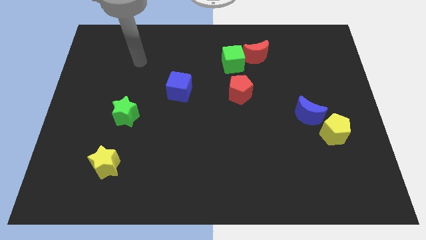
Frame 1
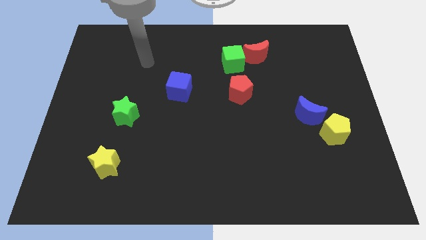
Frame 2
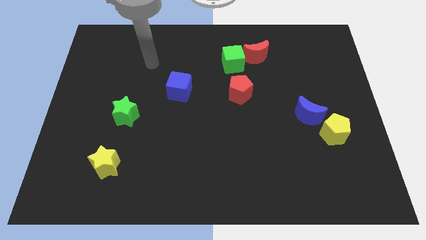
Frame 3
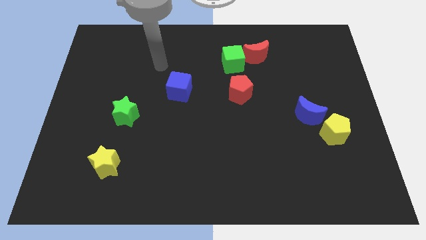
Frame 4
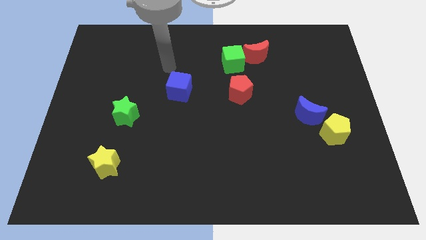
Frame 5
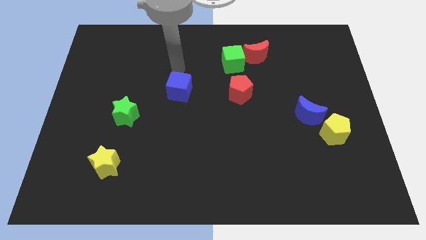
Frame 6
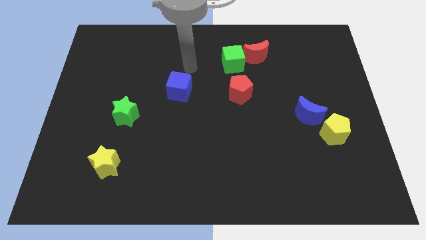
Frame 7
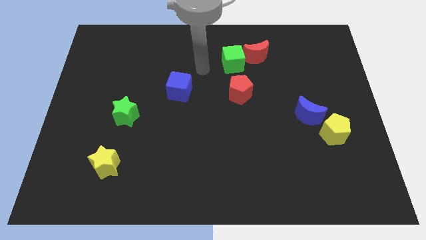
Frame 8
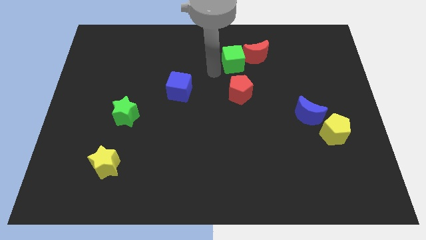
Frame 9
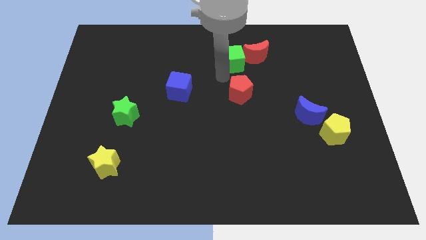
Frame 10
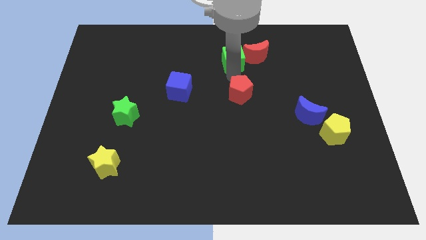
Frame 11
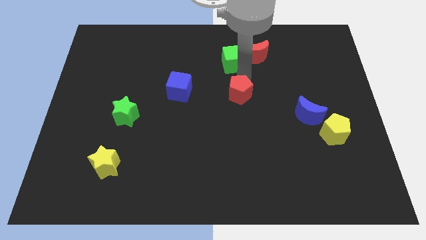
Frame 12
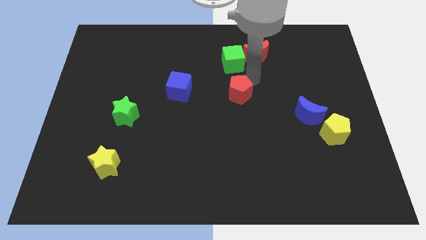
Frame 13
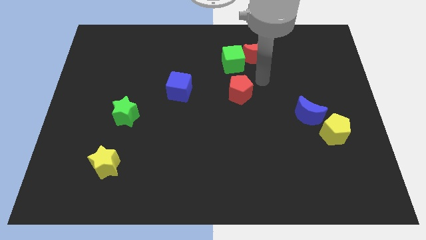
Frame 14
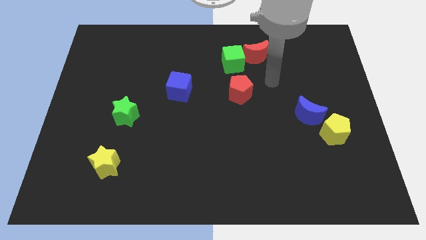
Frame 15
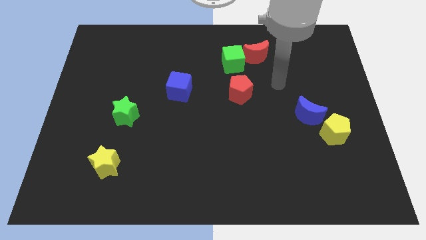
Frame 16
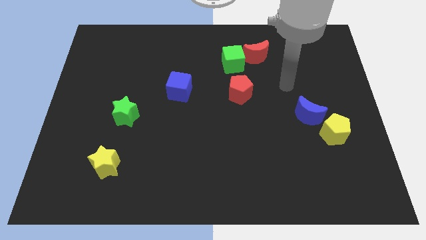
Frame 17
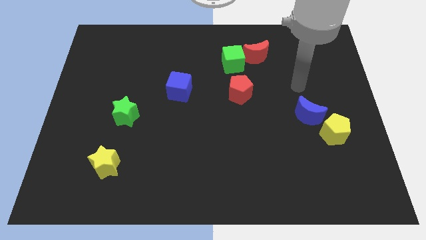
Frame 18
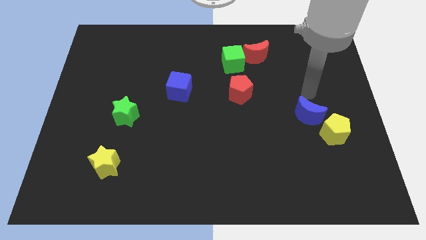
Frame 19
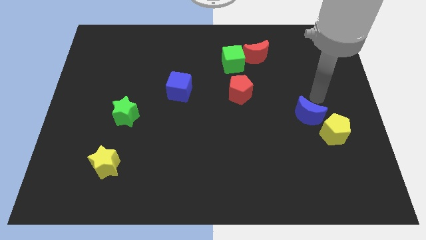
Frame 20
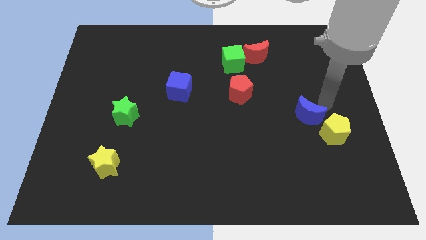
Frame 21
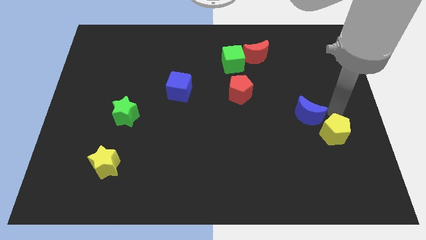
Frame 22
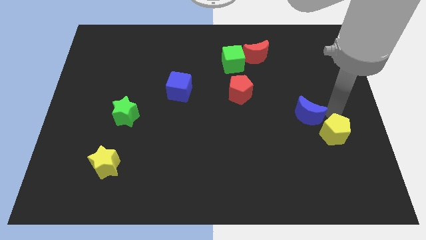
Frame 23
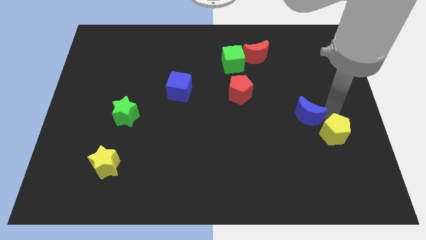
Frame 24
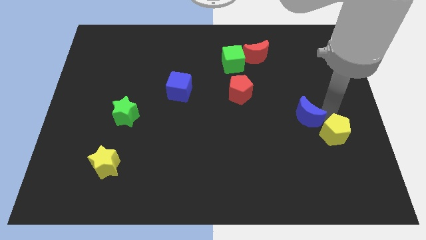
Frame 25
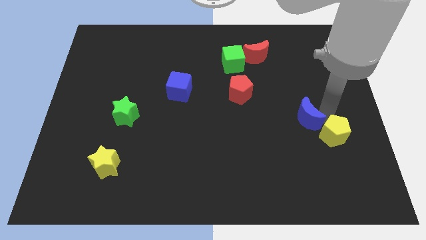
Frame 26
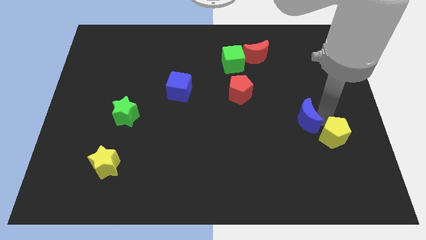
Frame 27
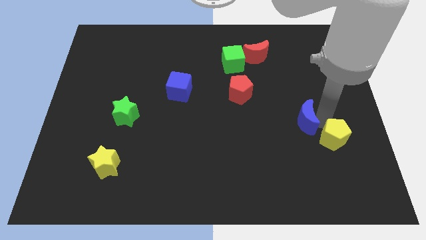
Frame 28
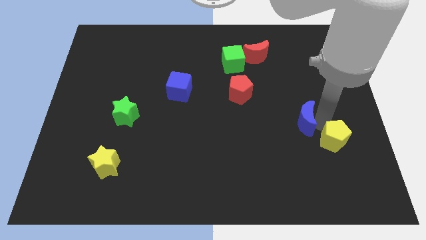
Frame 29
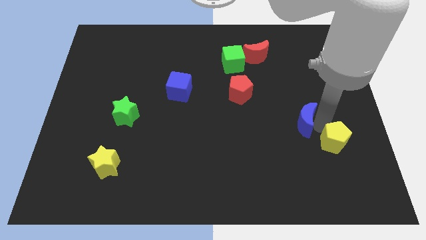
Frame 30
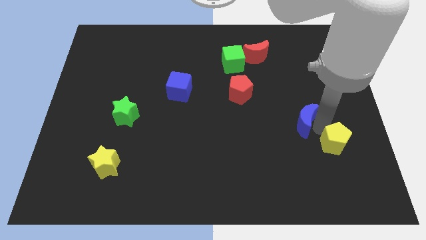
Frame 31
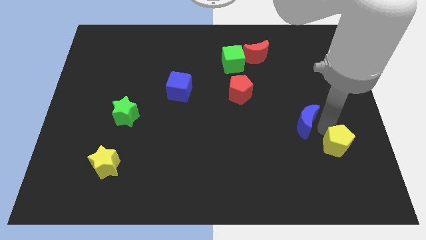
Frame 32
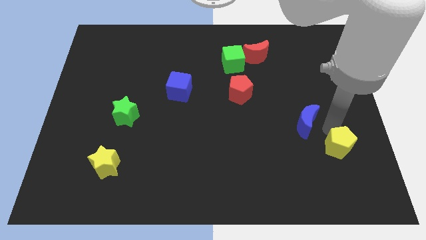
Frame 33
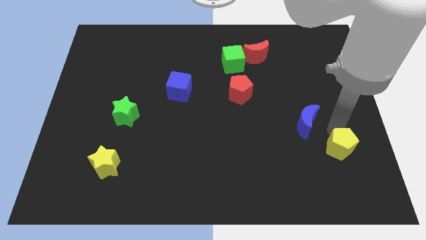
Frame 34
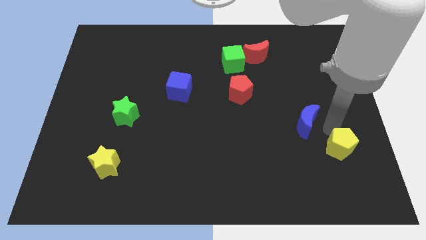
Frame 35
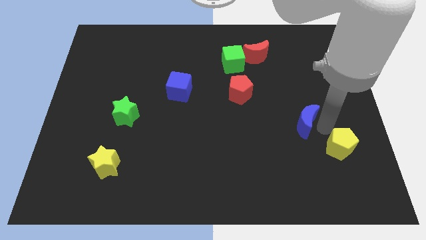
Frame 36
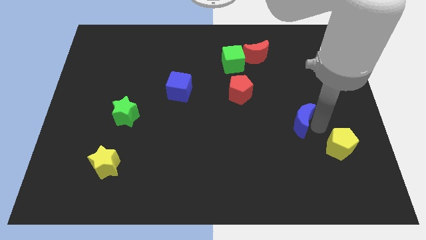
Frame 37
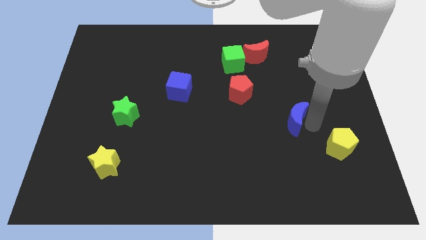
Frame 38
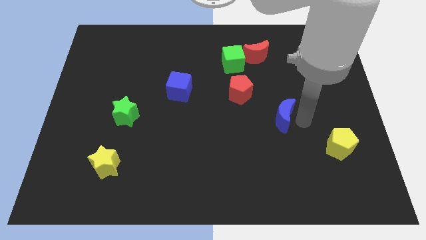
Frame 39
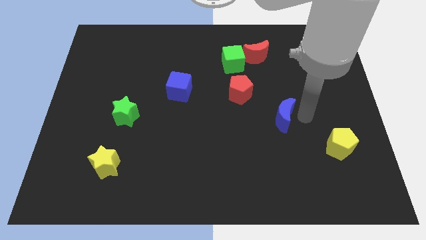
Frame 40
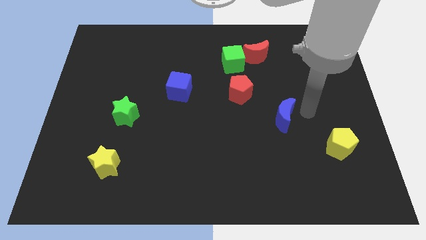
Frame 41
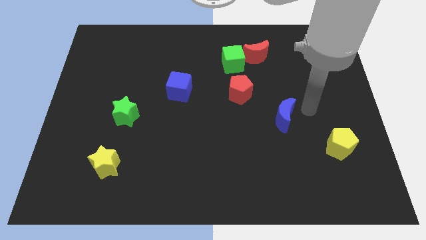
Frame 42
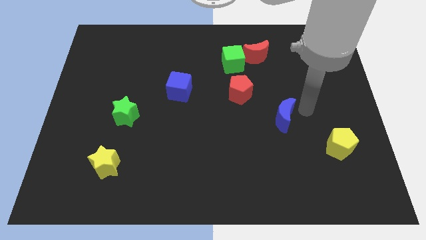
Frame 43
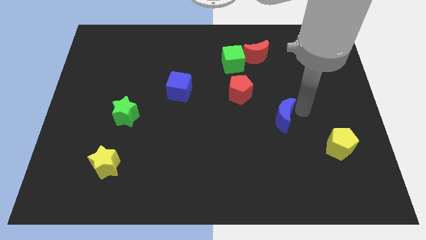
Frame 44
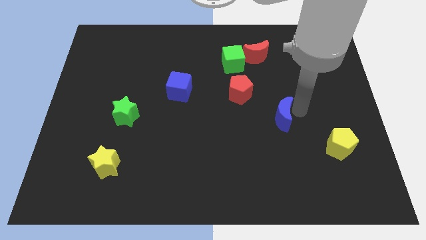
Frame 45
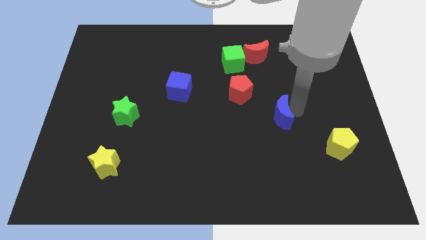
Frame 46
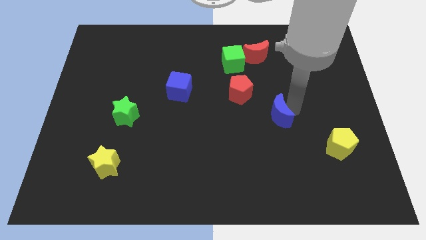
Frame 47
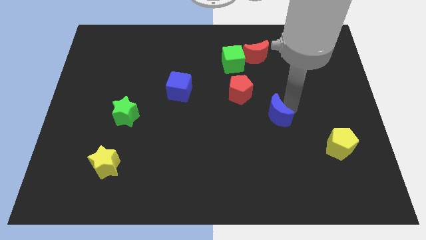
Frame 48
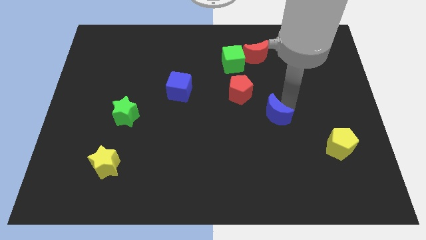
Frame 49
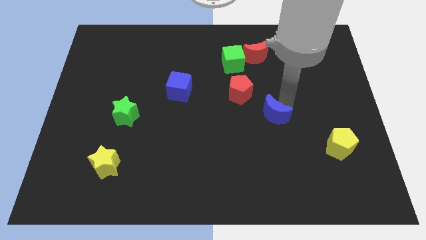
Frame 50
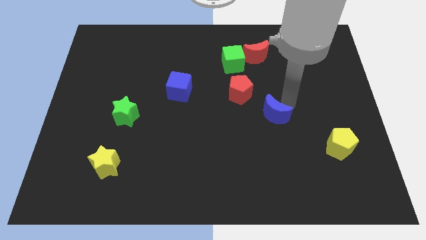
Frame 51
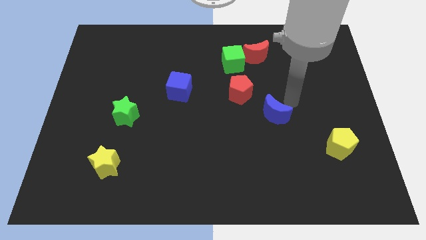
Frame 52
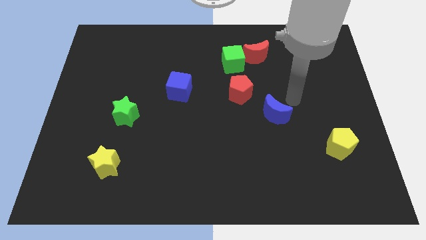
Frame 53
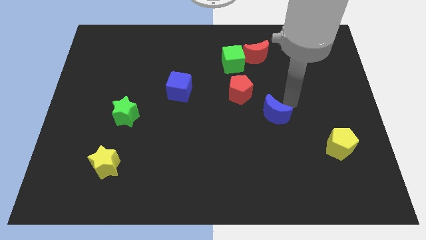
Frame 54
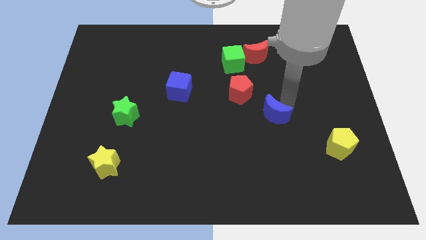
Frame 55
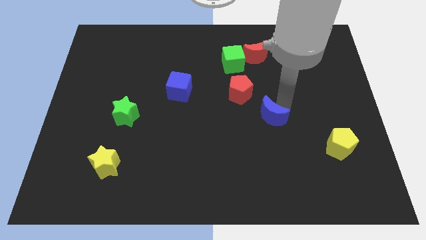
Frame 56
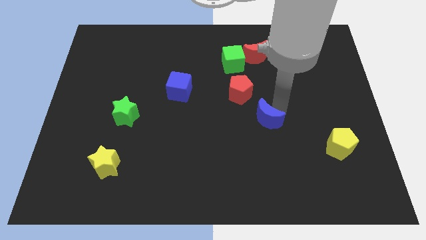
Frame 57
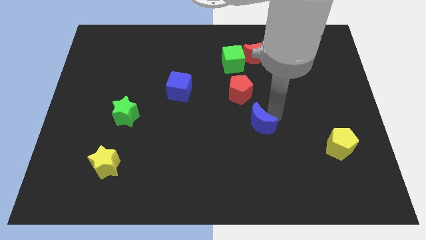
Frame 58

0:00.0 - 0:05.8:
slide the blue moon below the red pentagon

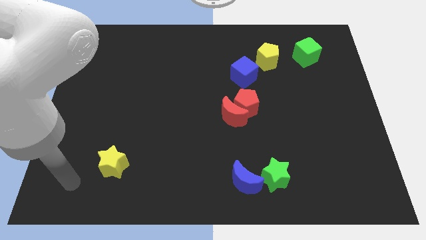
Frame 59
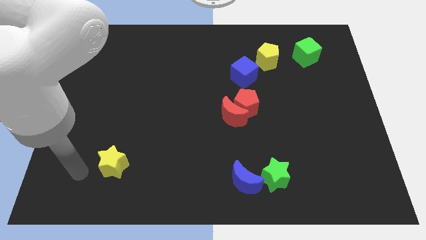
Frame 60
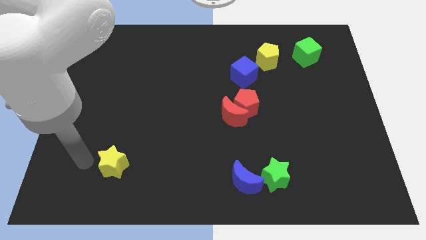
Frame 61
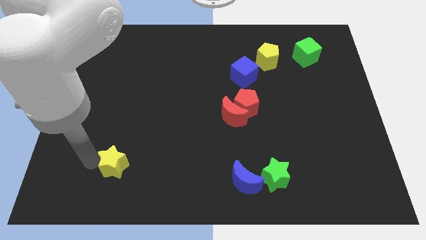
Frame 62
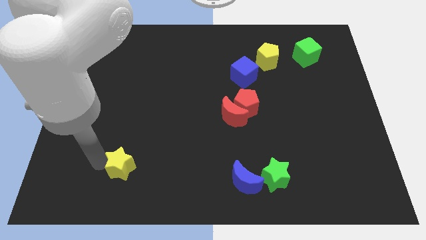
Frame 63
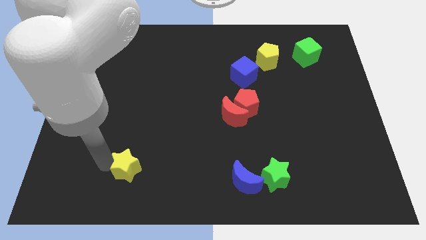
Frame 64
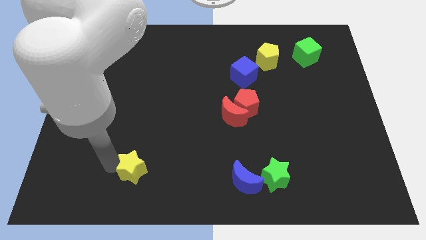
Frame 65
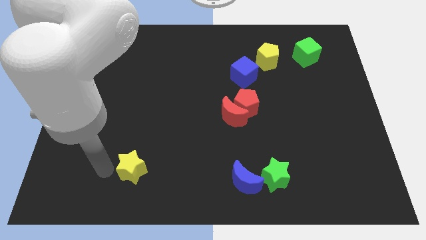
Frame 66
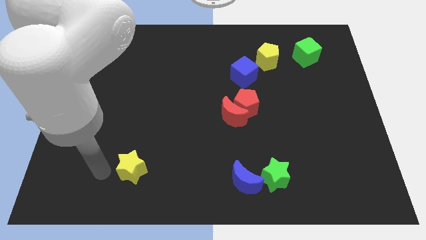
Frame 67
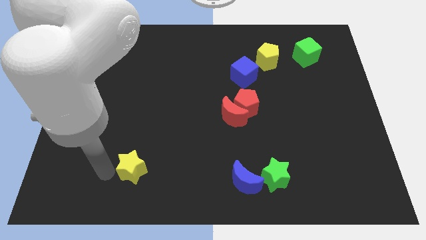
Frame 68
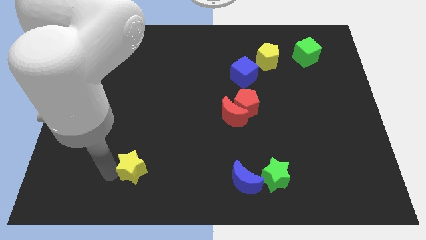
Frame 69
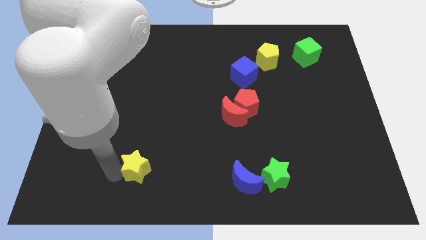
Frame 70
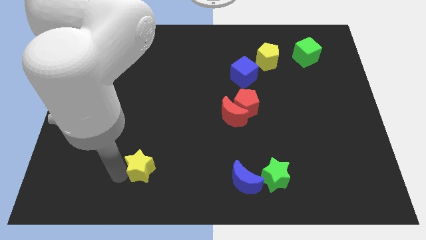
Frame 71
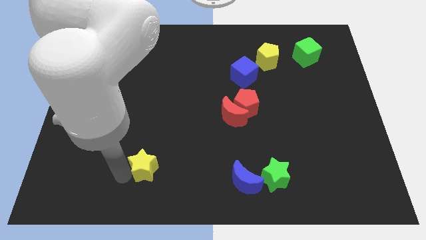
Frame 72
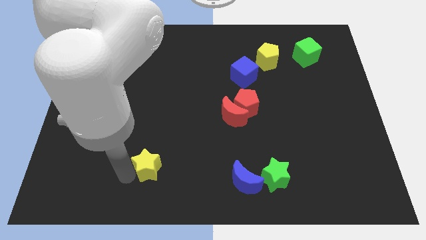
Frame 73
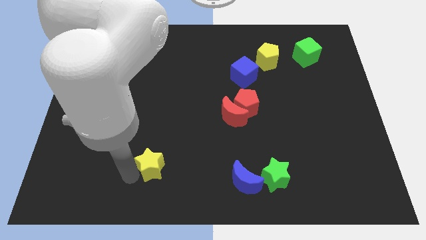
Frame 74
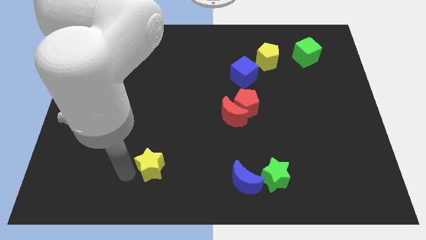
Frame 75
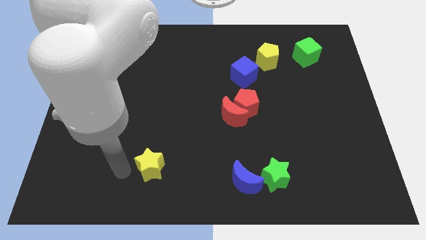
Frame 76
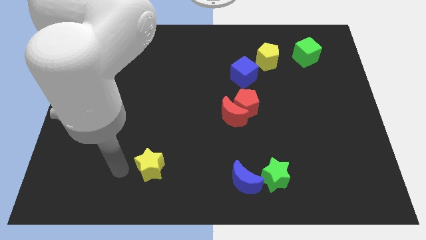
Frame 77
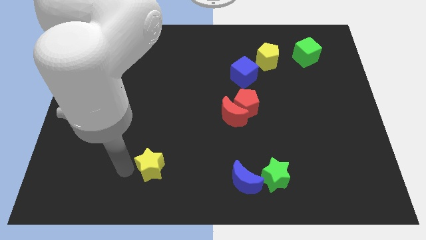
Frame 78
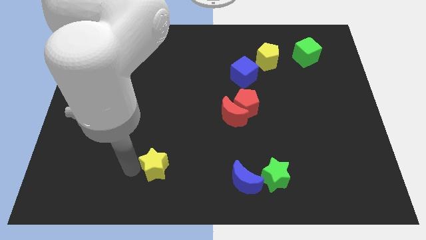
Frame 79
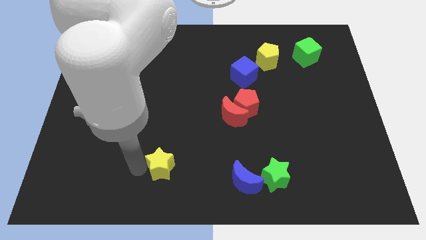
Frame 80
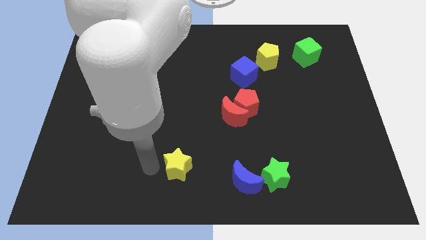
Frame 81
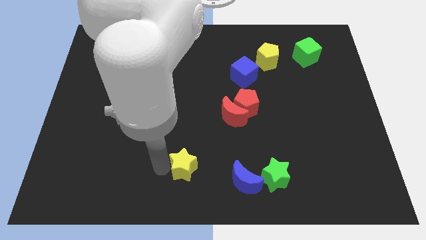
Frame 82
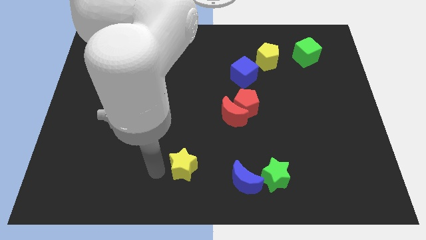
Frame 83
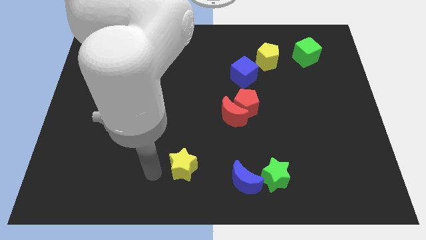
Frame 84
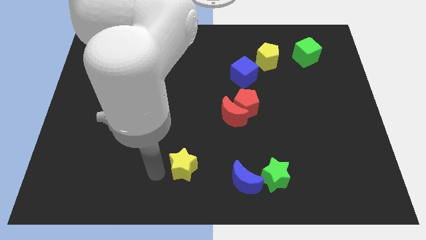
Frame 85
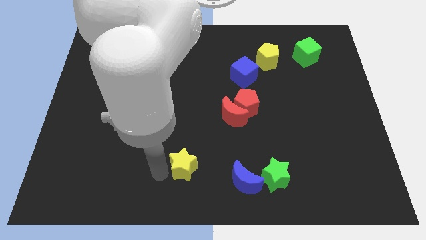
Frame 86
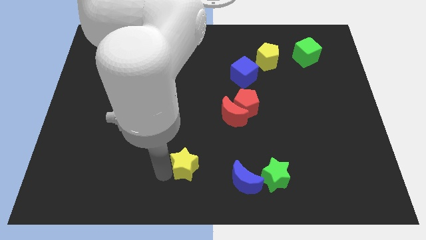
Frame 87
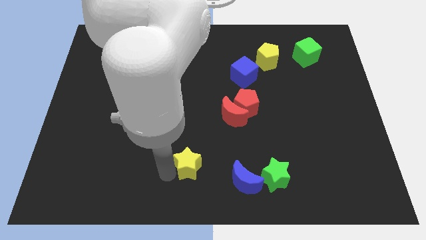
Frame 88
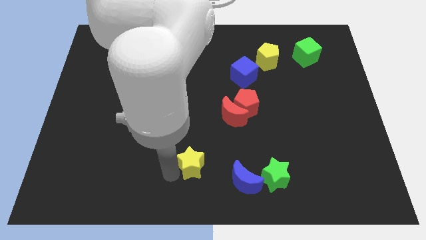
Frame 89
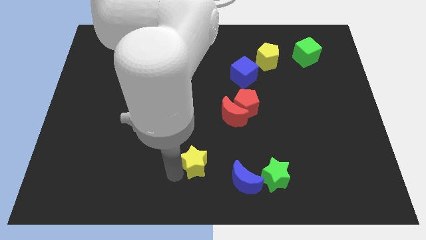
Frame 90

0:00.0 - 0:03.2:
push the yellow star to the top left of the blue moon
